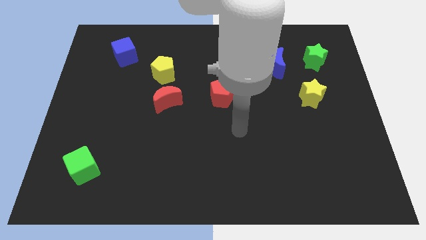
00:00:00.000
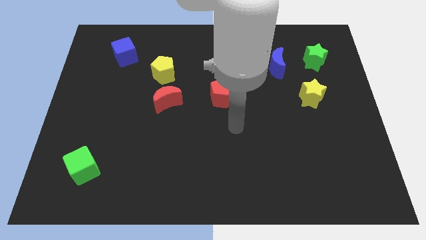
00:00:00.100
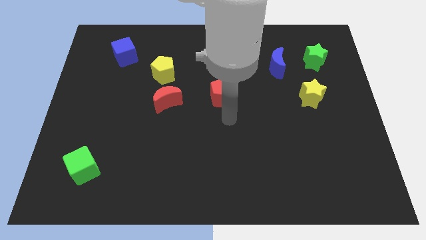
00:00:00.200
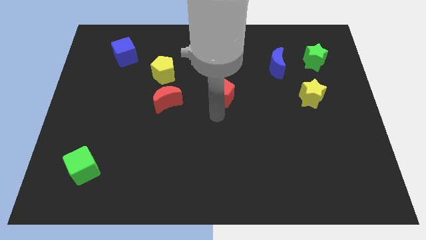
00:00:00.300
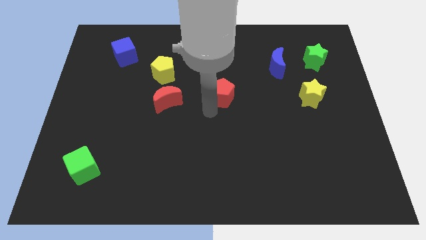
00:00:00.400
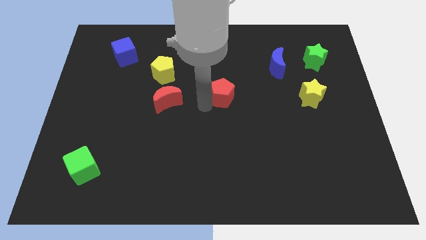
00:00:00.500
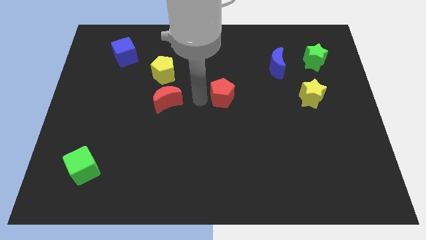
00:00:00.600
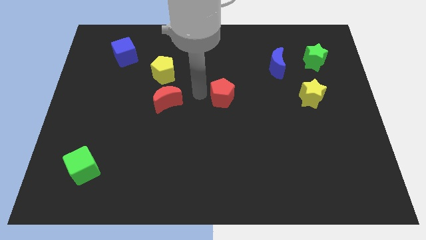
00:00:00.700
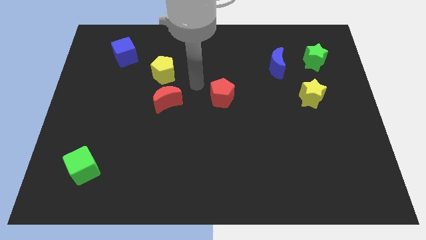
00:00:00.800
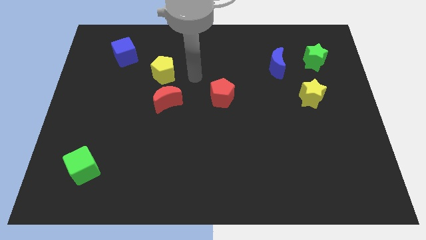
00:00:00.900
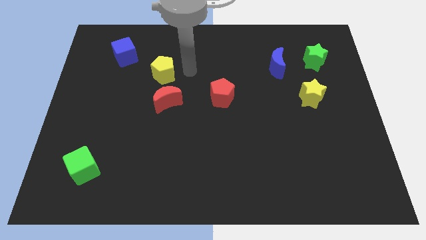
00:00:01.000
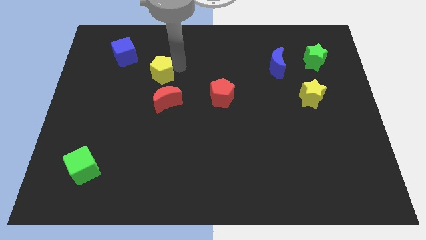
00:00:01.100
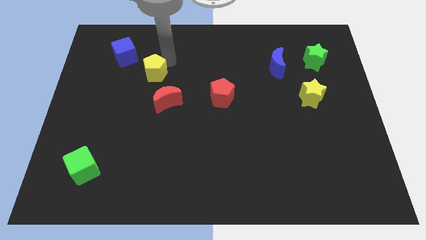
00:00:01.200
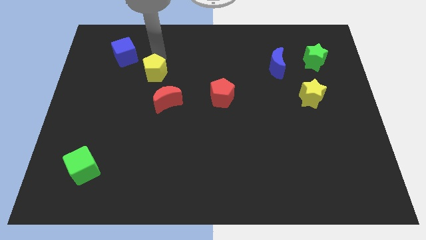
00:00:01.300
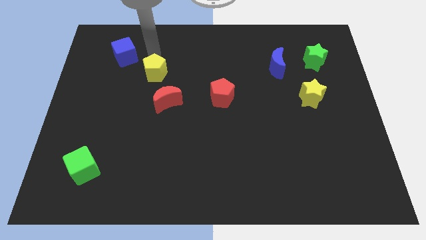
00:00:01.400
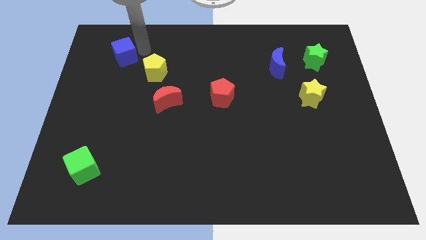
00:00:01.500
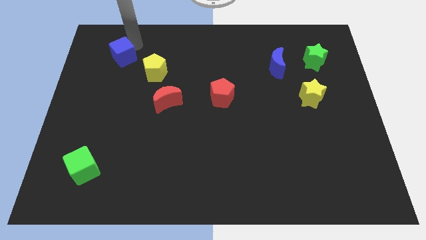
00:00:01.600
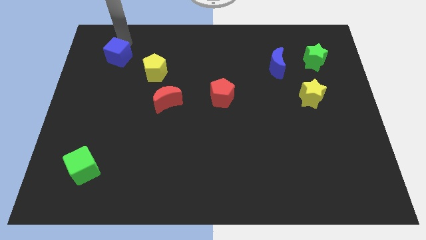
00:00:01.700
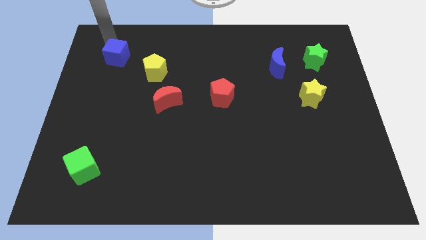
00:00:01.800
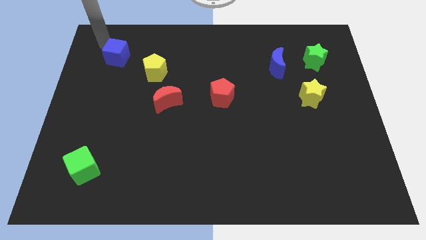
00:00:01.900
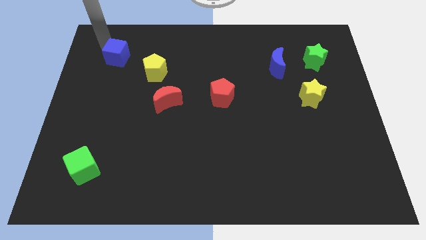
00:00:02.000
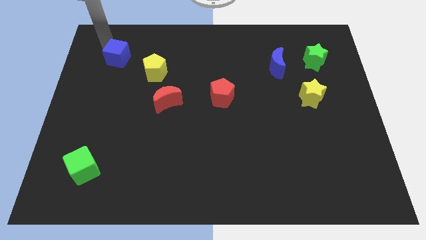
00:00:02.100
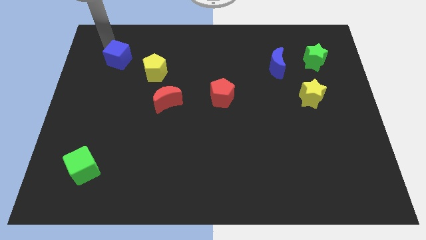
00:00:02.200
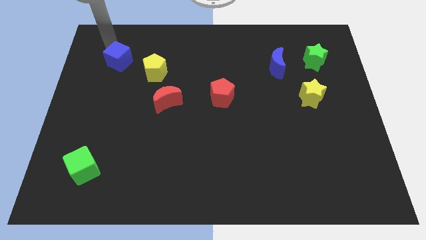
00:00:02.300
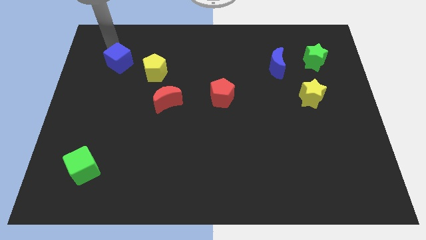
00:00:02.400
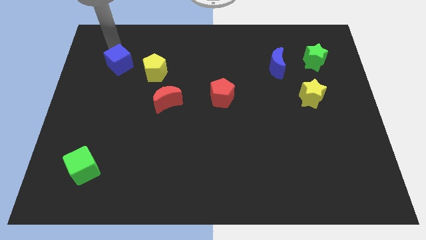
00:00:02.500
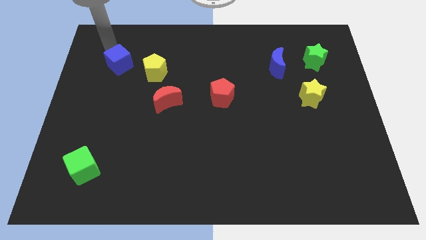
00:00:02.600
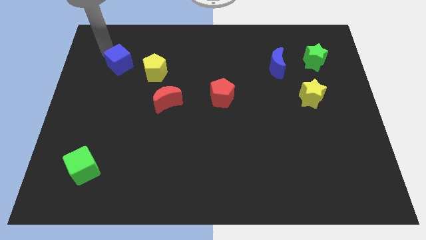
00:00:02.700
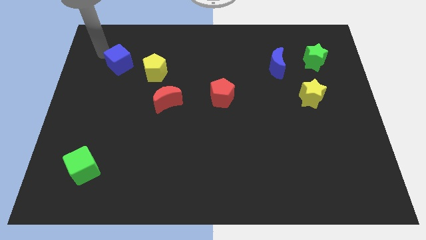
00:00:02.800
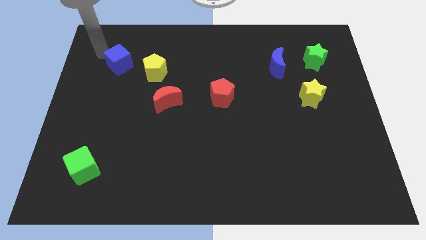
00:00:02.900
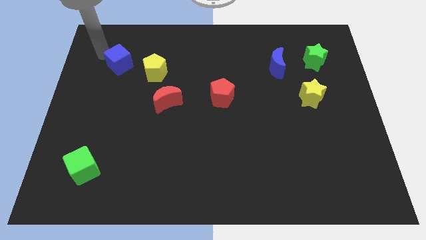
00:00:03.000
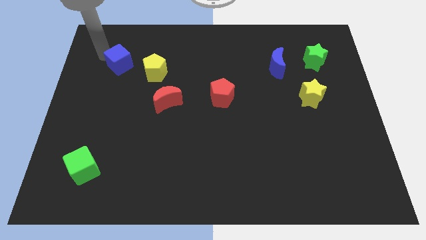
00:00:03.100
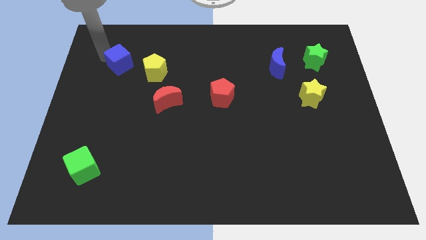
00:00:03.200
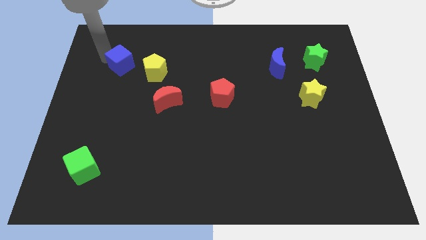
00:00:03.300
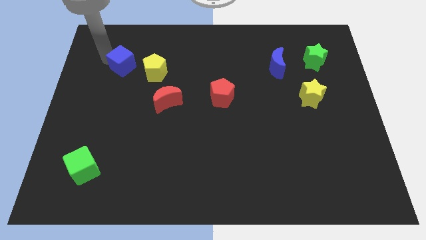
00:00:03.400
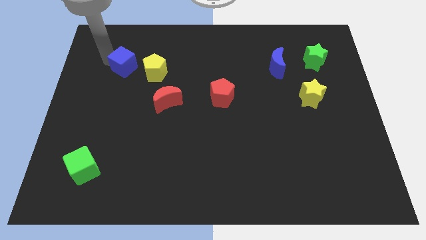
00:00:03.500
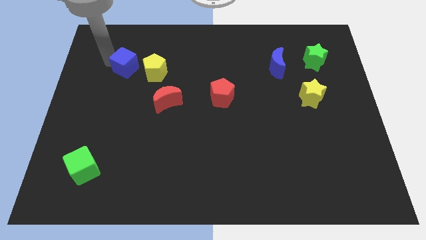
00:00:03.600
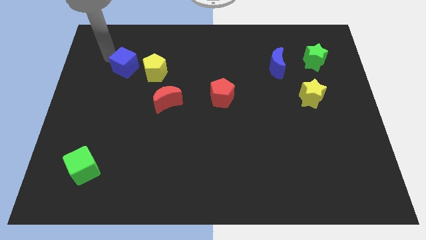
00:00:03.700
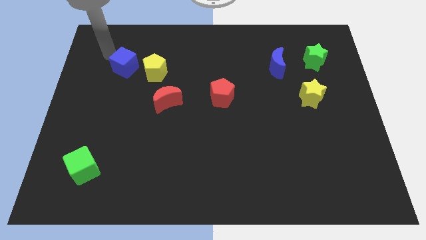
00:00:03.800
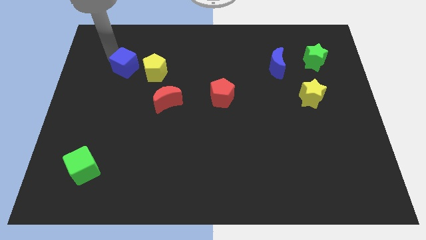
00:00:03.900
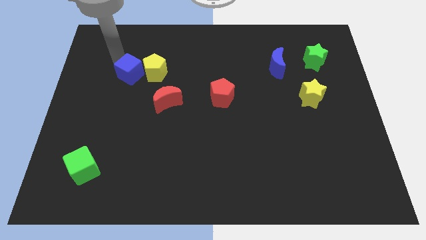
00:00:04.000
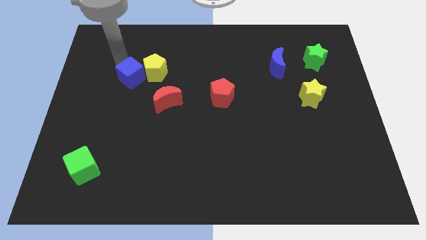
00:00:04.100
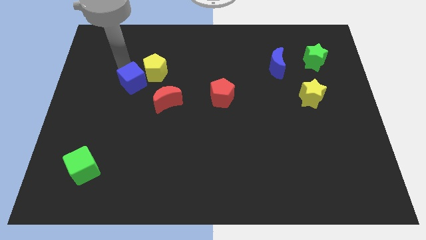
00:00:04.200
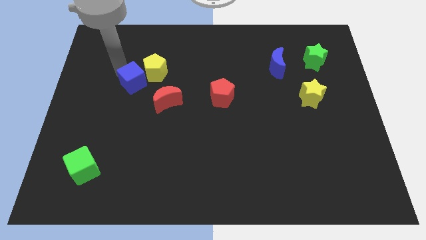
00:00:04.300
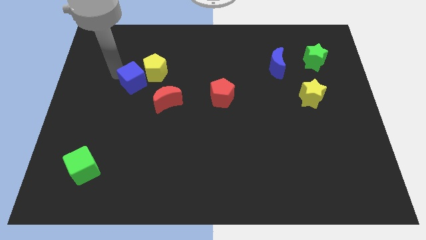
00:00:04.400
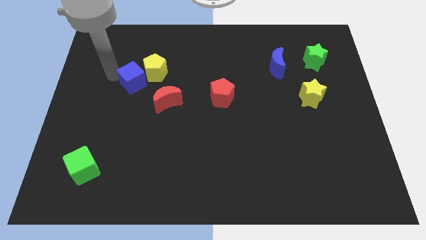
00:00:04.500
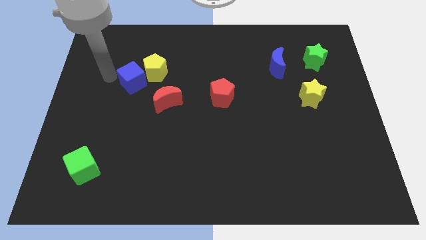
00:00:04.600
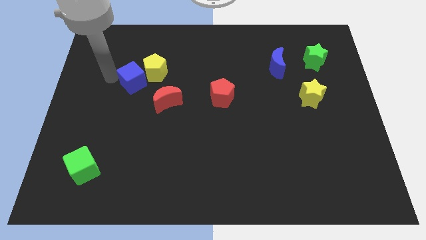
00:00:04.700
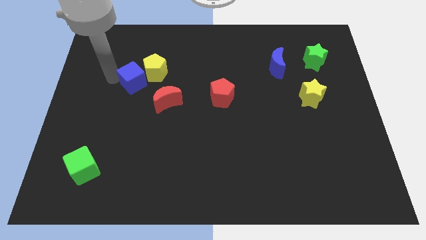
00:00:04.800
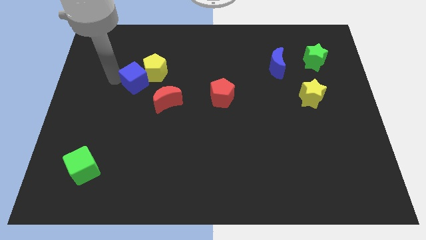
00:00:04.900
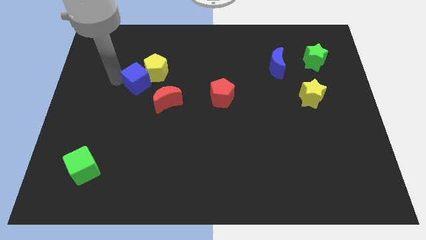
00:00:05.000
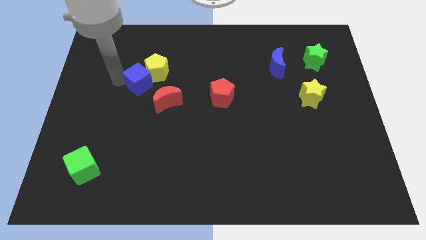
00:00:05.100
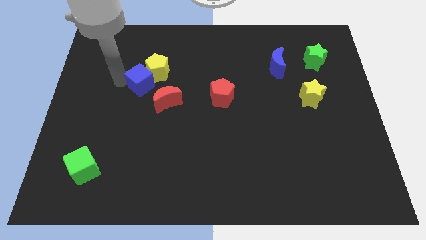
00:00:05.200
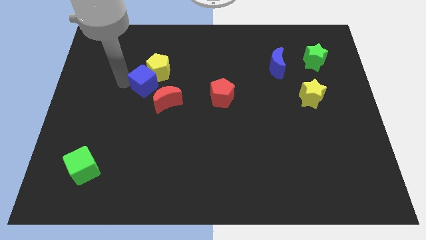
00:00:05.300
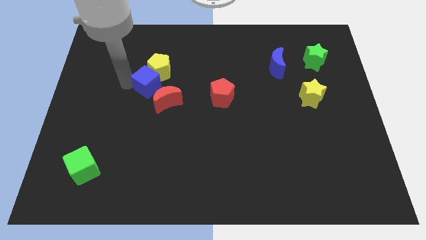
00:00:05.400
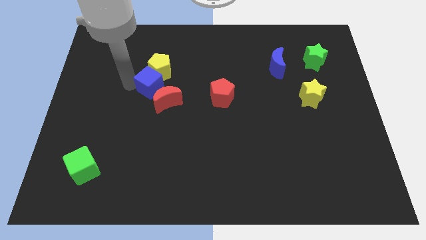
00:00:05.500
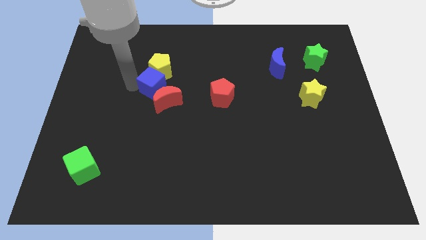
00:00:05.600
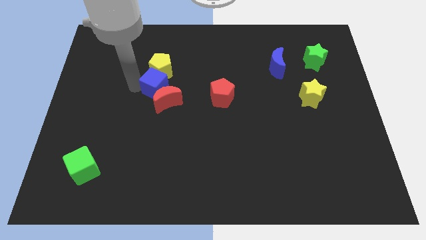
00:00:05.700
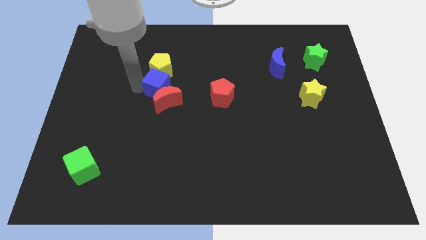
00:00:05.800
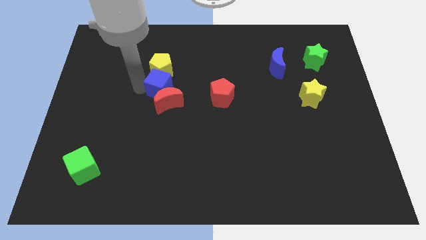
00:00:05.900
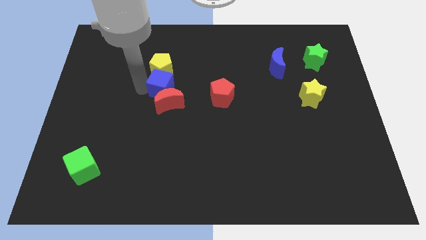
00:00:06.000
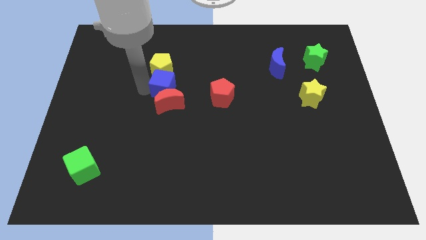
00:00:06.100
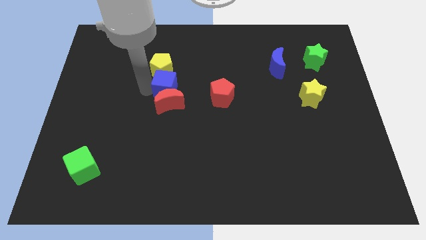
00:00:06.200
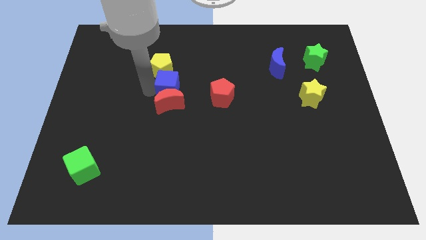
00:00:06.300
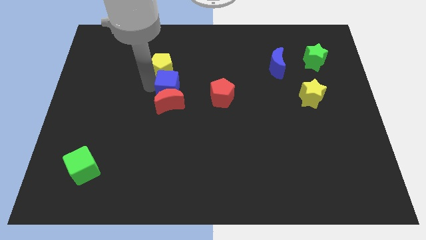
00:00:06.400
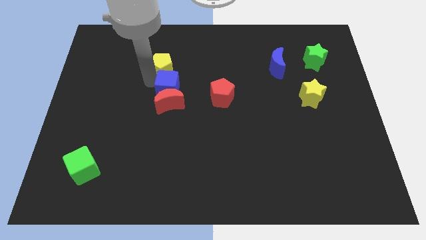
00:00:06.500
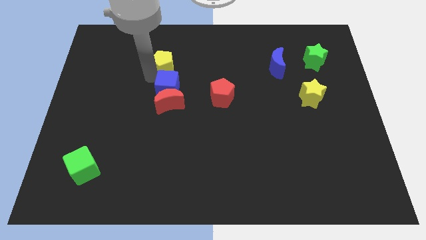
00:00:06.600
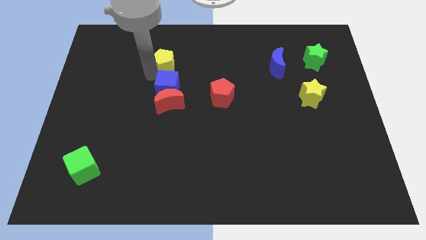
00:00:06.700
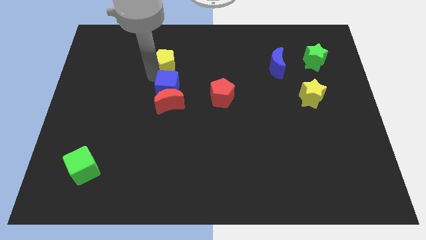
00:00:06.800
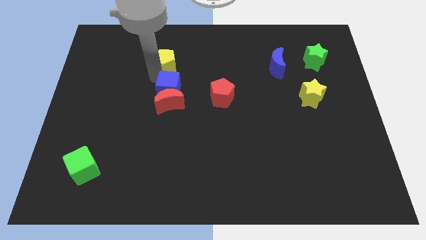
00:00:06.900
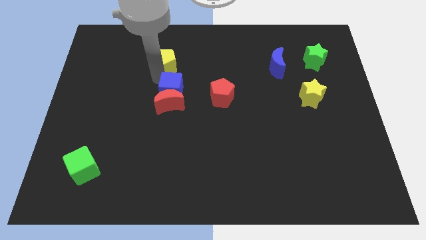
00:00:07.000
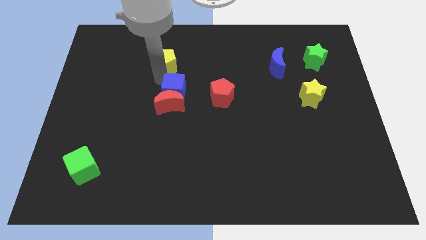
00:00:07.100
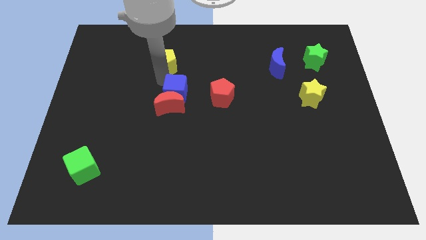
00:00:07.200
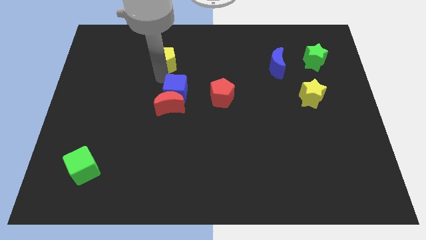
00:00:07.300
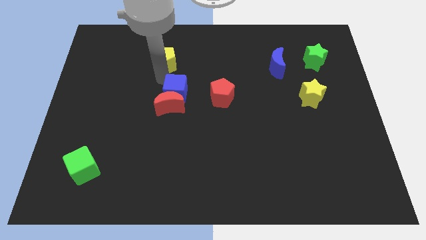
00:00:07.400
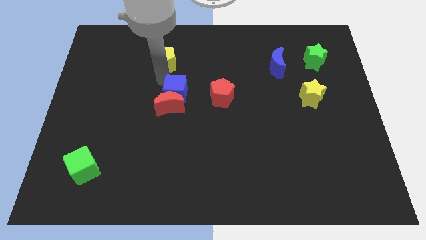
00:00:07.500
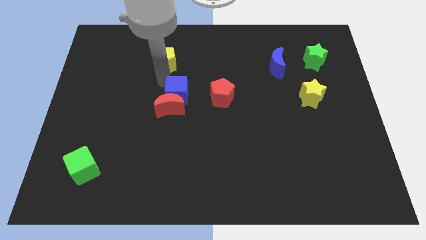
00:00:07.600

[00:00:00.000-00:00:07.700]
move the blue cube downwards and to the right diagonally

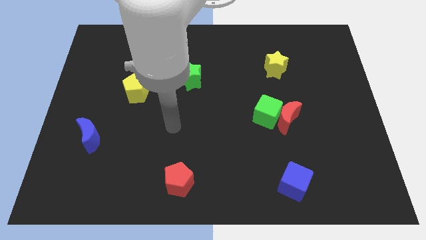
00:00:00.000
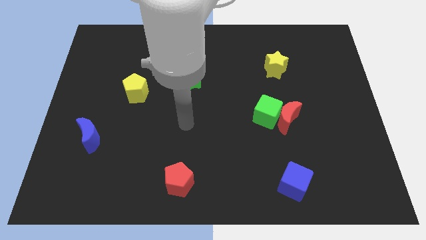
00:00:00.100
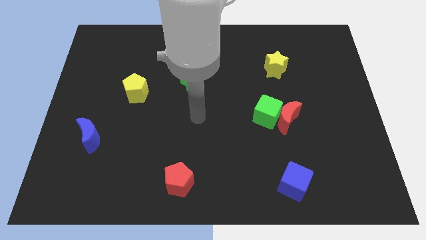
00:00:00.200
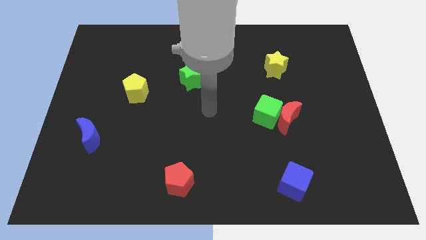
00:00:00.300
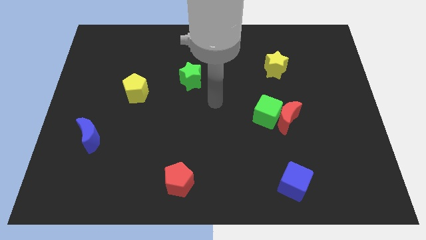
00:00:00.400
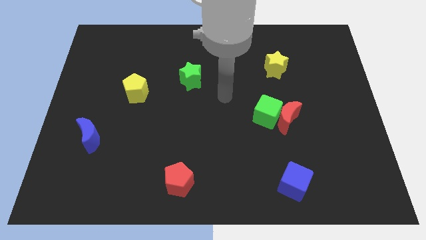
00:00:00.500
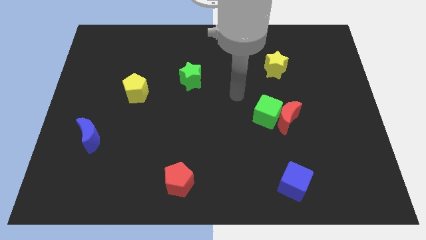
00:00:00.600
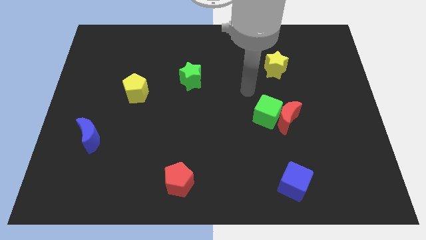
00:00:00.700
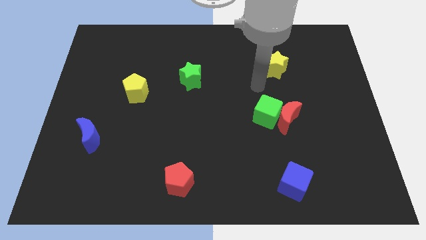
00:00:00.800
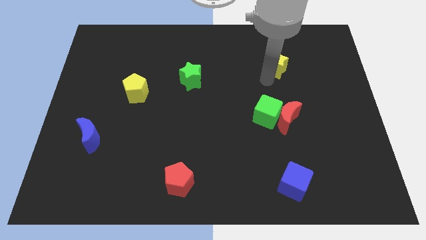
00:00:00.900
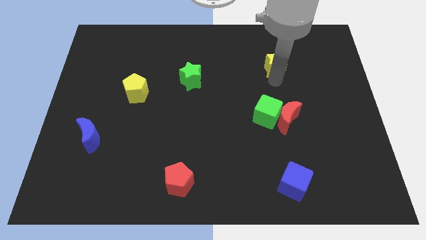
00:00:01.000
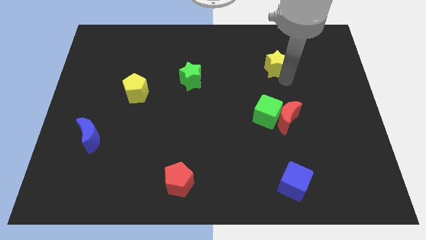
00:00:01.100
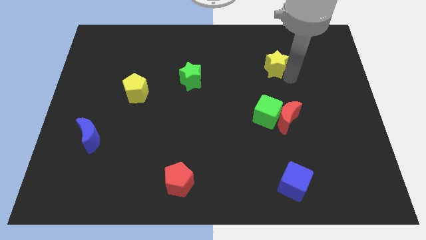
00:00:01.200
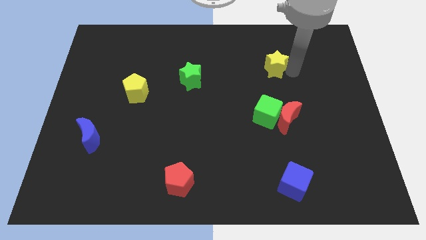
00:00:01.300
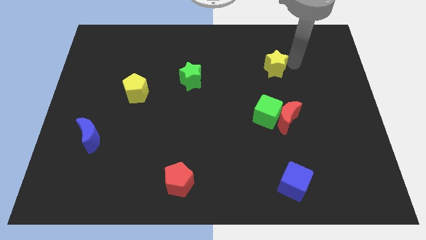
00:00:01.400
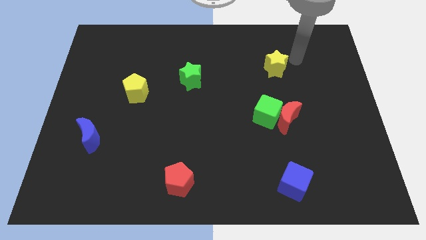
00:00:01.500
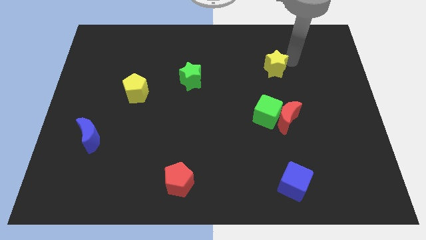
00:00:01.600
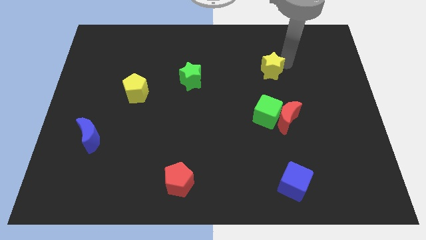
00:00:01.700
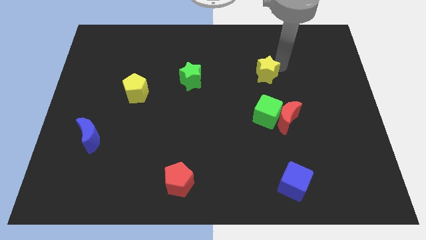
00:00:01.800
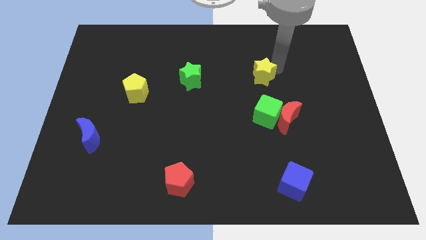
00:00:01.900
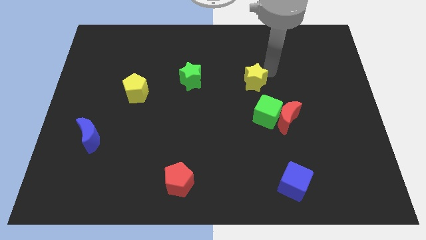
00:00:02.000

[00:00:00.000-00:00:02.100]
move the yellow star a bit down and then to the left
